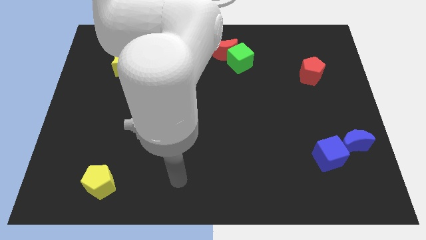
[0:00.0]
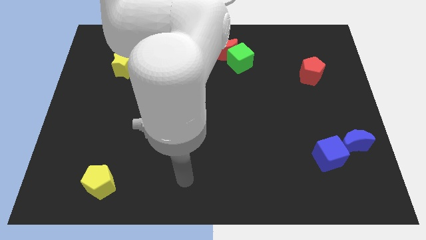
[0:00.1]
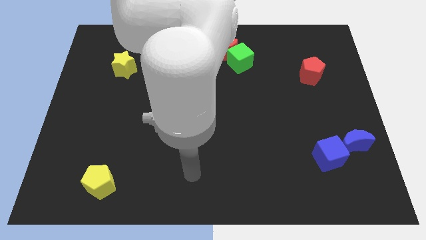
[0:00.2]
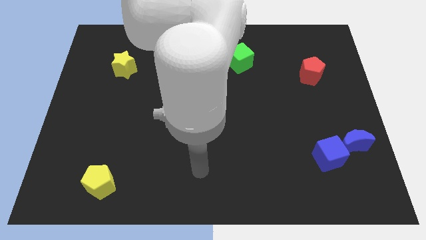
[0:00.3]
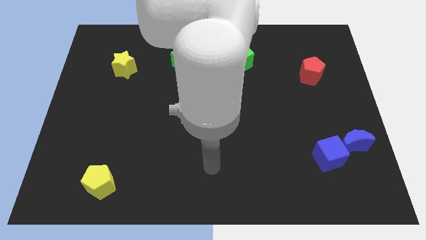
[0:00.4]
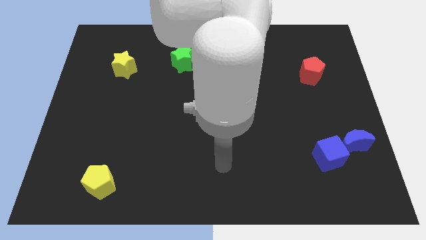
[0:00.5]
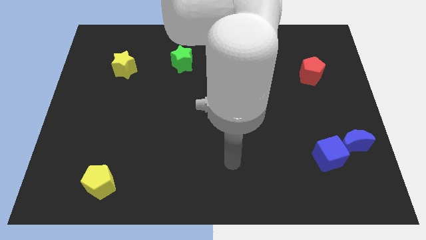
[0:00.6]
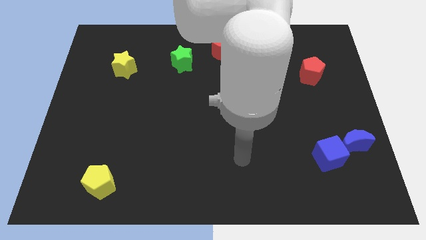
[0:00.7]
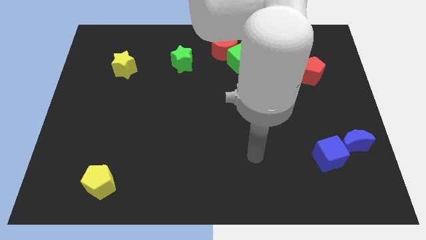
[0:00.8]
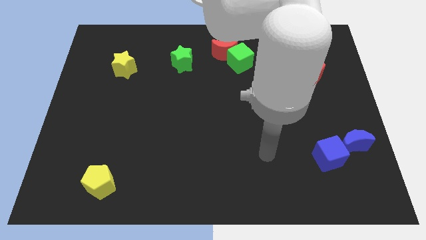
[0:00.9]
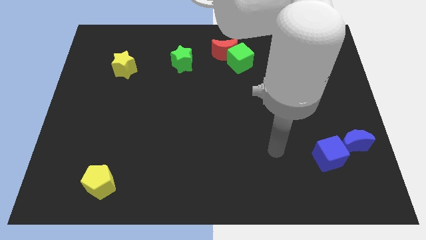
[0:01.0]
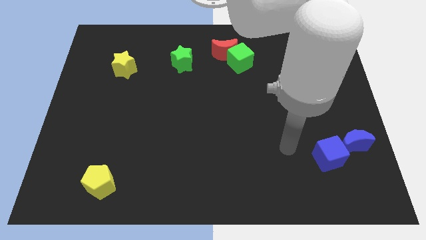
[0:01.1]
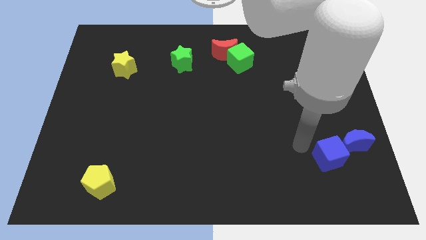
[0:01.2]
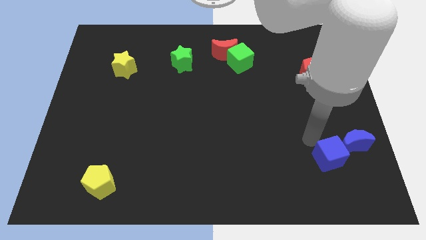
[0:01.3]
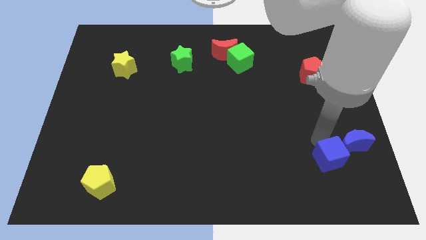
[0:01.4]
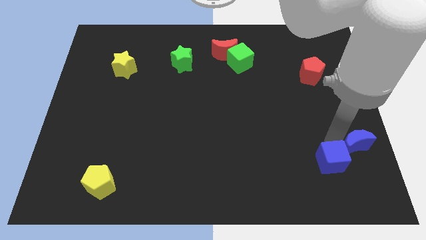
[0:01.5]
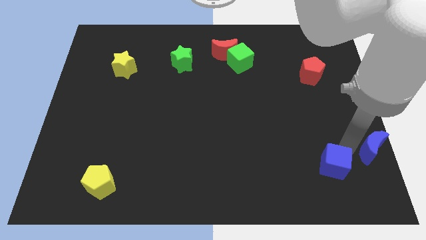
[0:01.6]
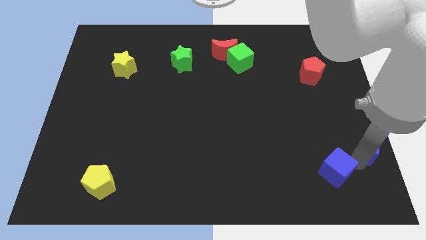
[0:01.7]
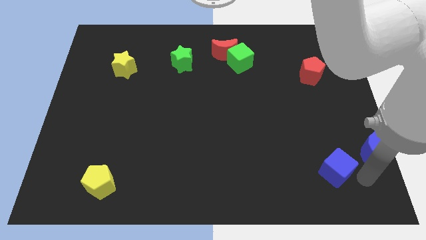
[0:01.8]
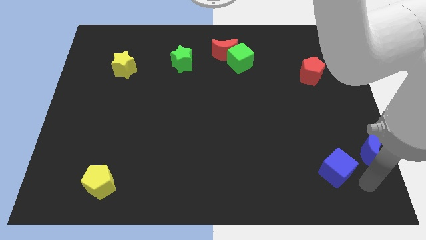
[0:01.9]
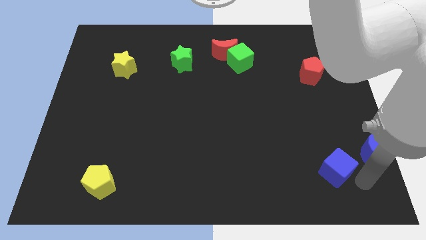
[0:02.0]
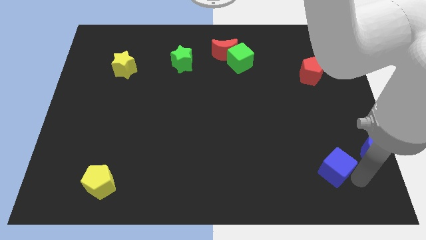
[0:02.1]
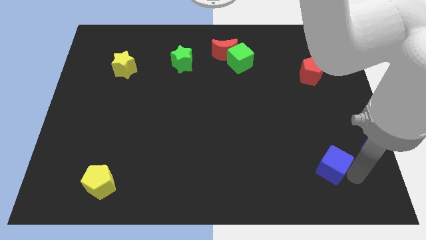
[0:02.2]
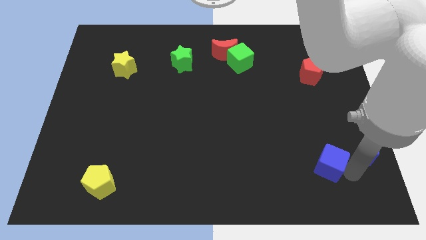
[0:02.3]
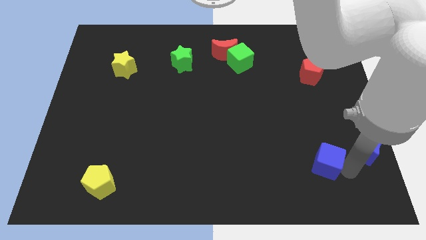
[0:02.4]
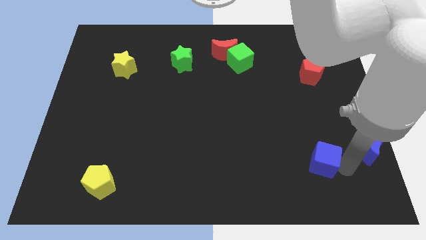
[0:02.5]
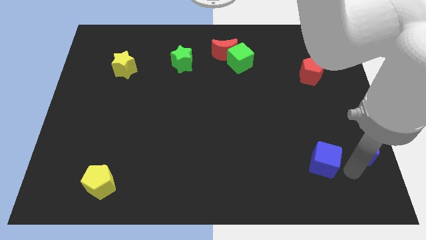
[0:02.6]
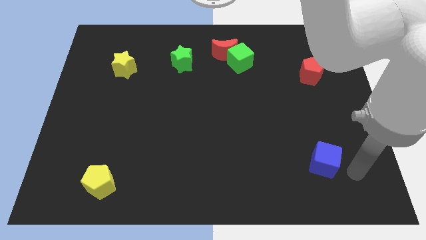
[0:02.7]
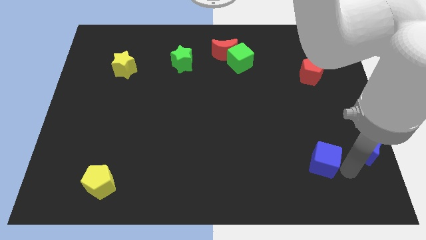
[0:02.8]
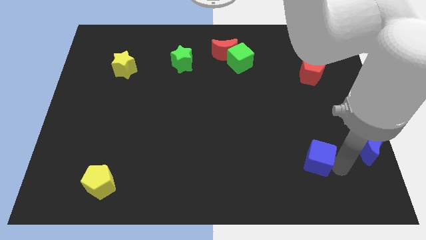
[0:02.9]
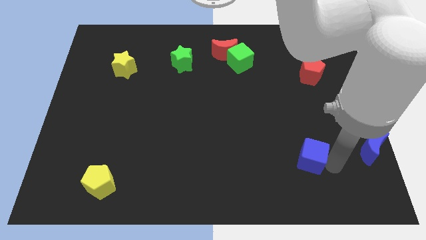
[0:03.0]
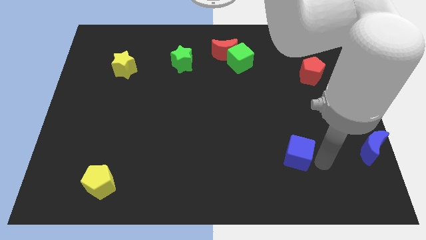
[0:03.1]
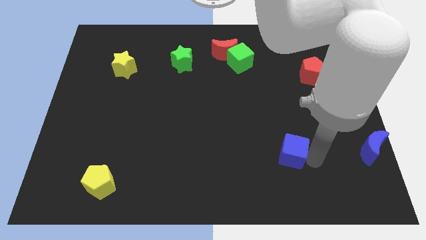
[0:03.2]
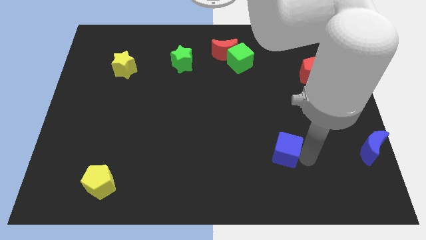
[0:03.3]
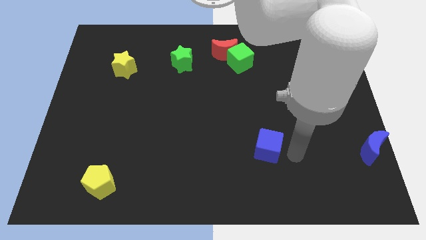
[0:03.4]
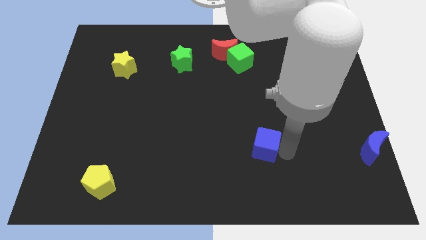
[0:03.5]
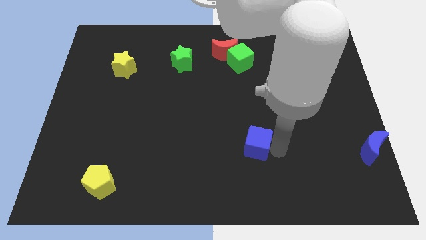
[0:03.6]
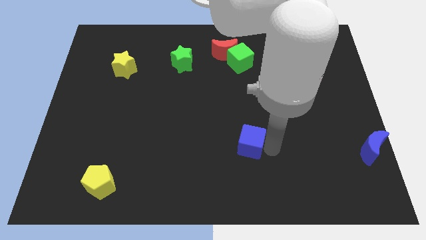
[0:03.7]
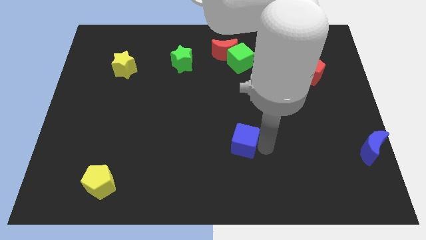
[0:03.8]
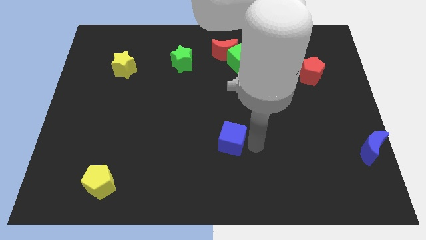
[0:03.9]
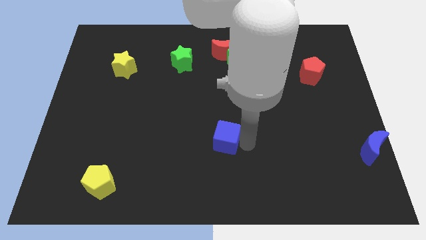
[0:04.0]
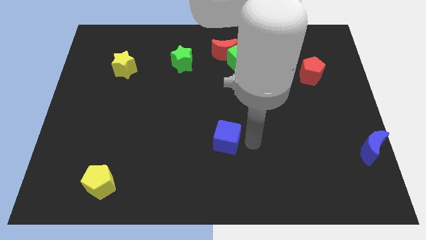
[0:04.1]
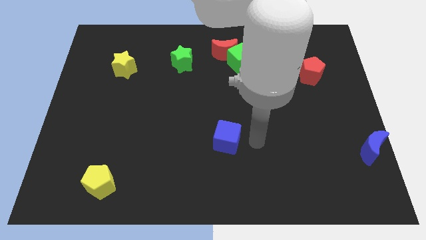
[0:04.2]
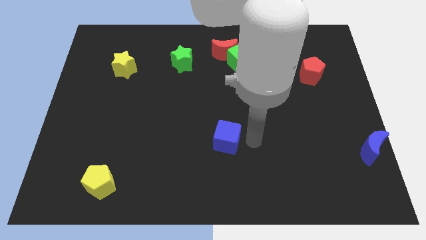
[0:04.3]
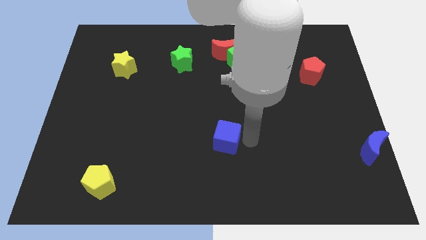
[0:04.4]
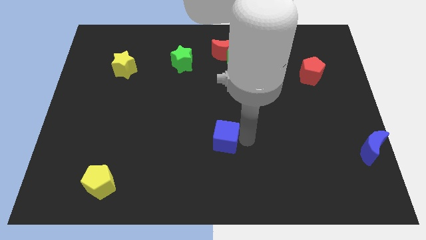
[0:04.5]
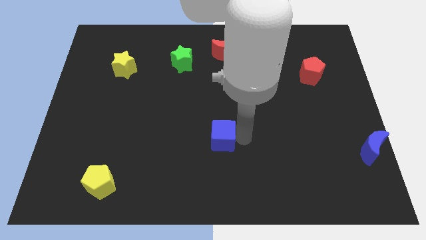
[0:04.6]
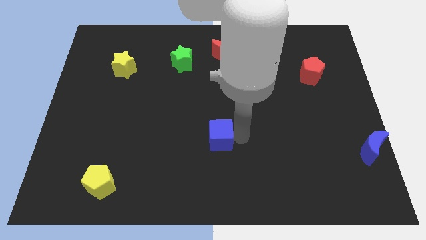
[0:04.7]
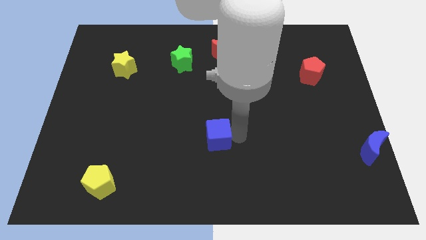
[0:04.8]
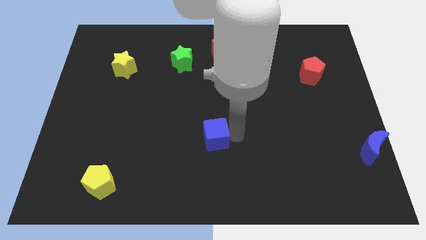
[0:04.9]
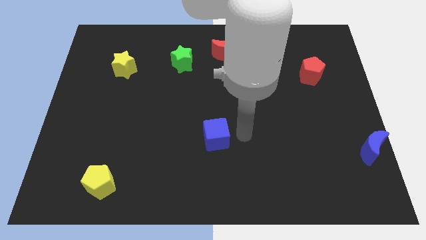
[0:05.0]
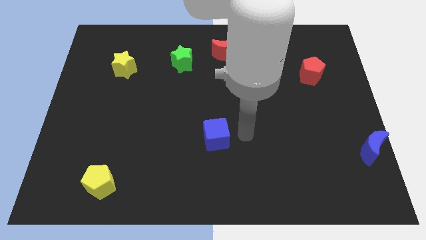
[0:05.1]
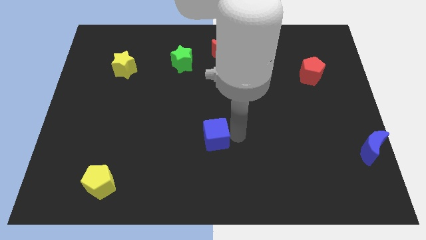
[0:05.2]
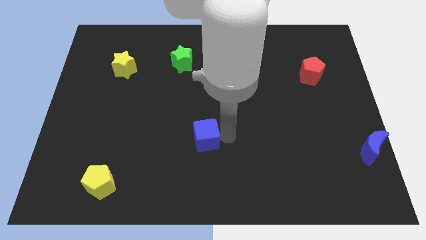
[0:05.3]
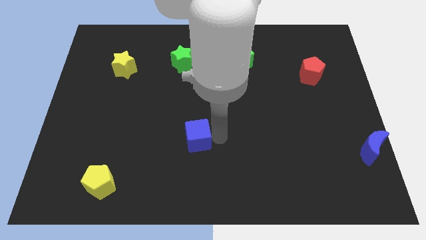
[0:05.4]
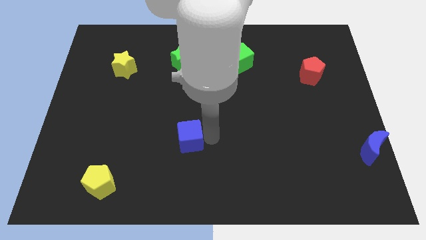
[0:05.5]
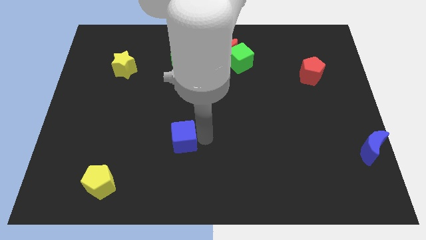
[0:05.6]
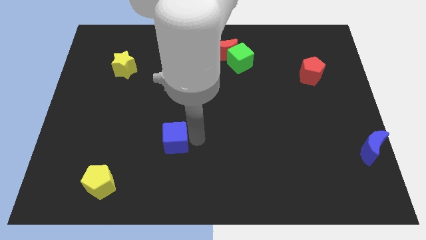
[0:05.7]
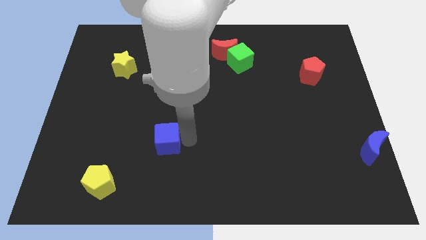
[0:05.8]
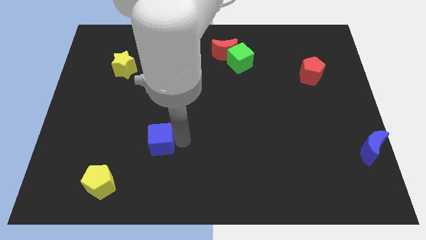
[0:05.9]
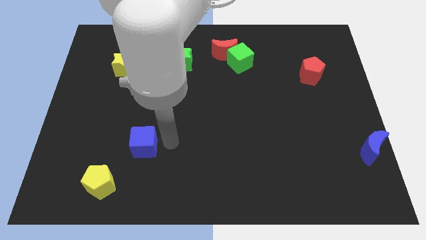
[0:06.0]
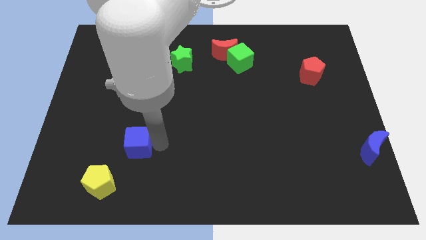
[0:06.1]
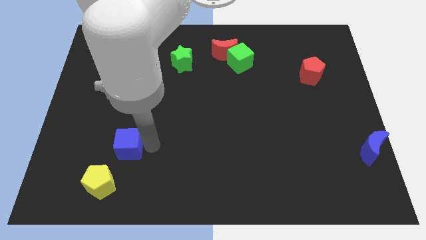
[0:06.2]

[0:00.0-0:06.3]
push the blue cube above the yellow pentagon

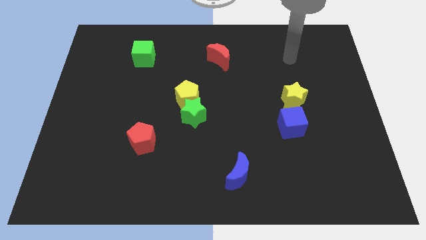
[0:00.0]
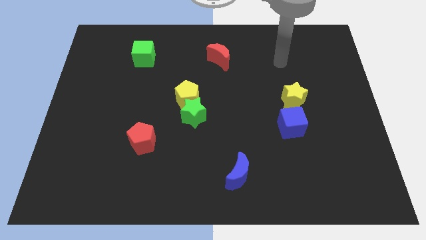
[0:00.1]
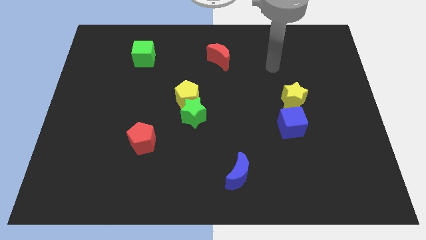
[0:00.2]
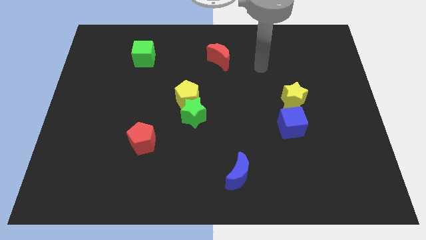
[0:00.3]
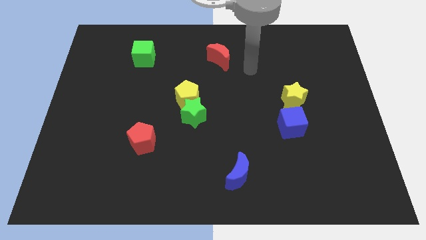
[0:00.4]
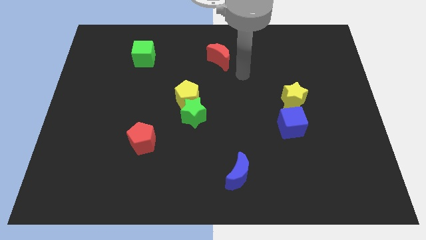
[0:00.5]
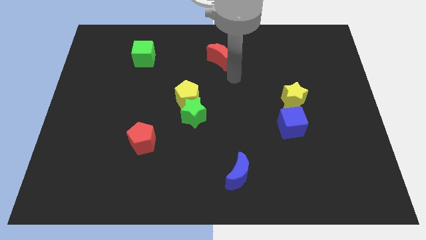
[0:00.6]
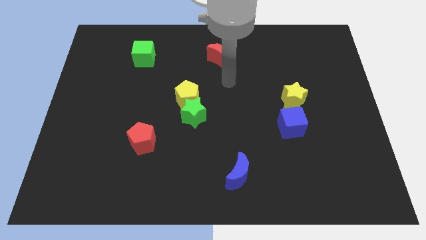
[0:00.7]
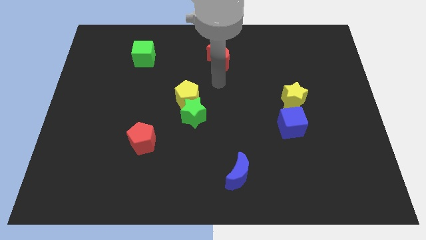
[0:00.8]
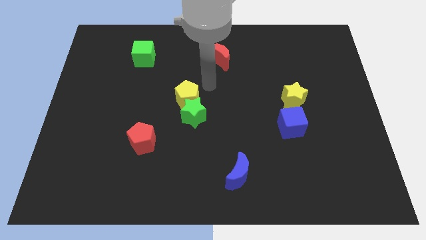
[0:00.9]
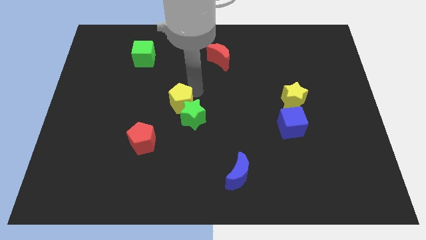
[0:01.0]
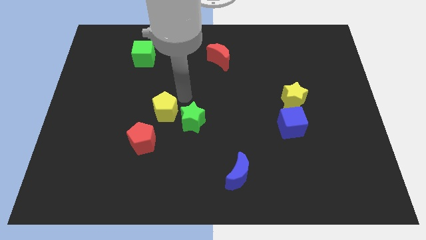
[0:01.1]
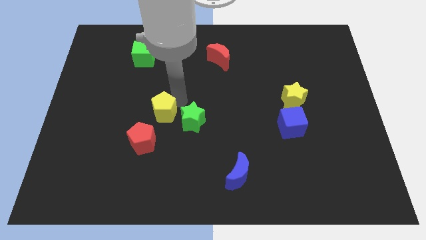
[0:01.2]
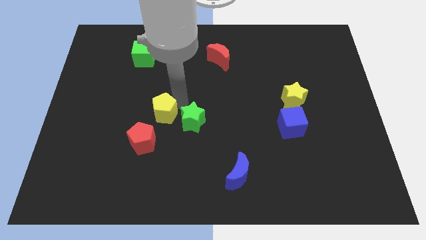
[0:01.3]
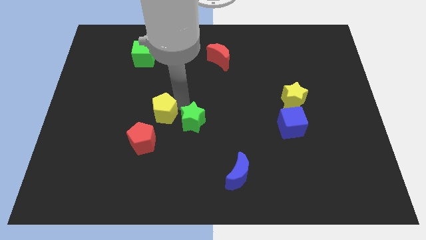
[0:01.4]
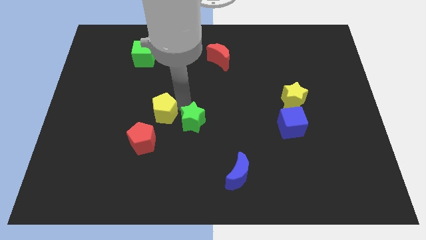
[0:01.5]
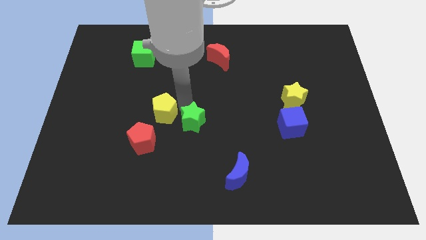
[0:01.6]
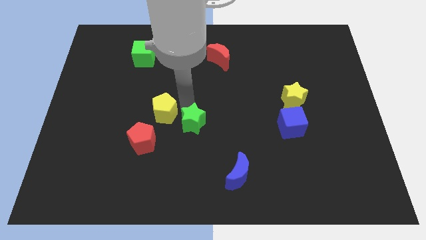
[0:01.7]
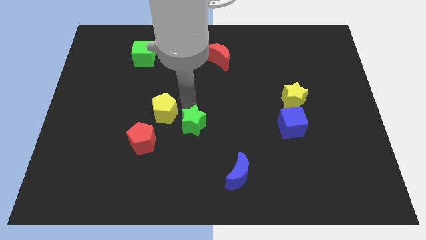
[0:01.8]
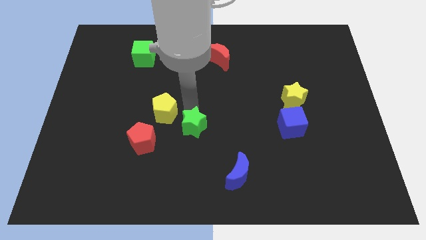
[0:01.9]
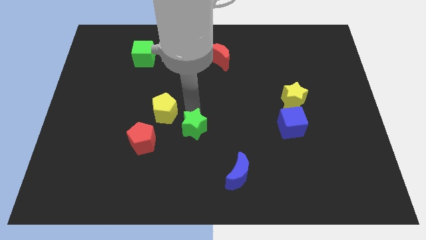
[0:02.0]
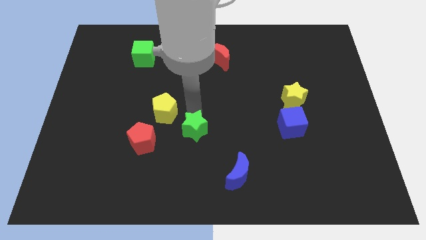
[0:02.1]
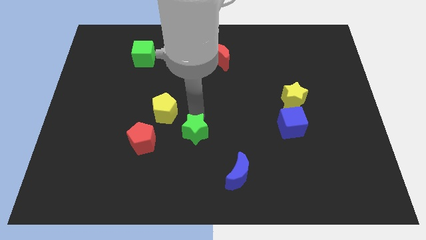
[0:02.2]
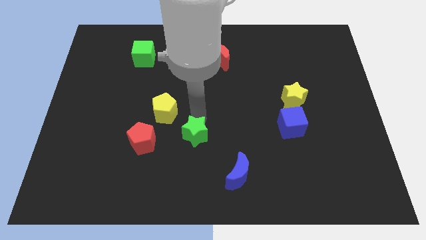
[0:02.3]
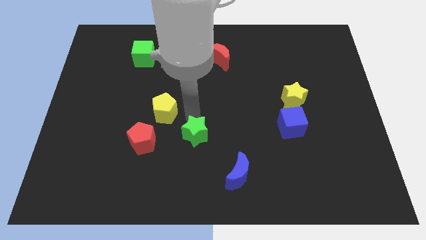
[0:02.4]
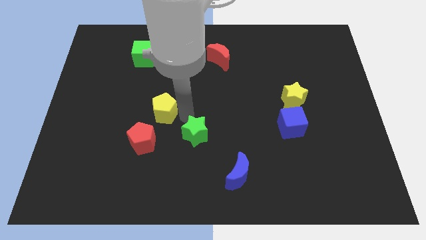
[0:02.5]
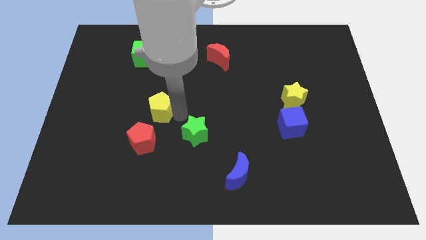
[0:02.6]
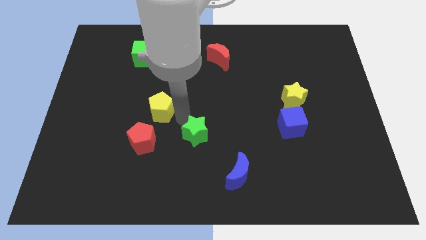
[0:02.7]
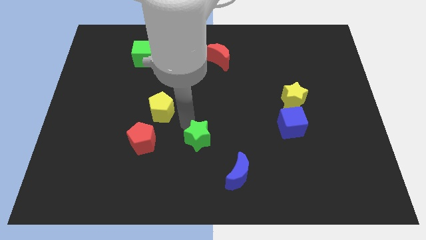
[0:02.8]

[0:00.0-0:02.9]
put the green star to the top left side of the blue moon
